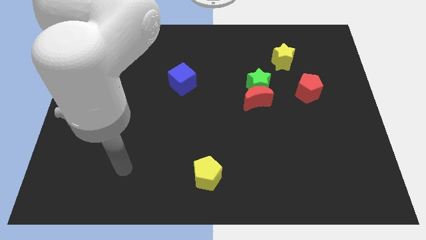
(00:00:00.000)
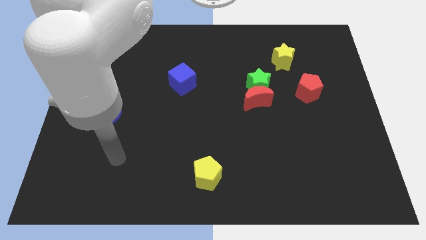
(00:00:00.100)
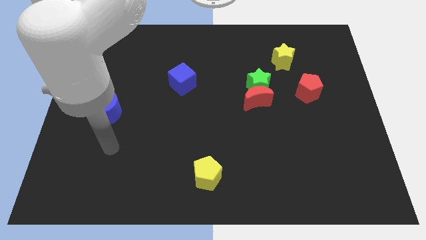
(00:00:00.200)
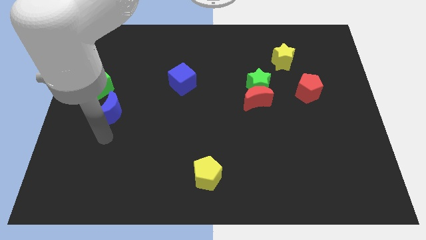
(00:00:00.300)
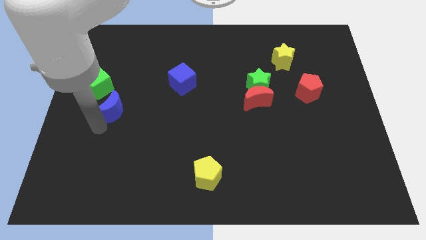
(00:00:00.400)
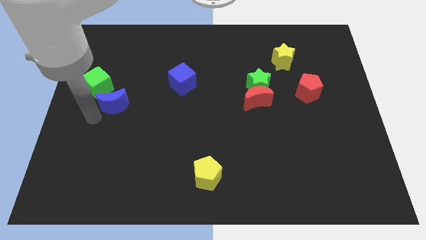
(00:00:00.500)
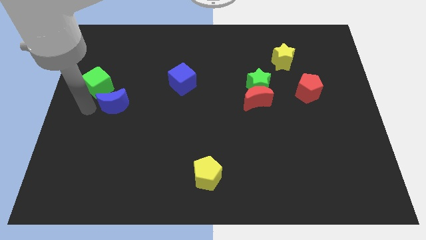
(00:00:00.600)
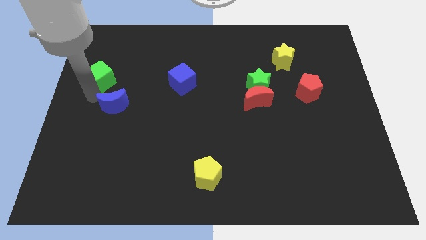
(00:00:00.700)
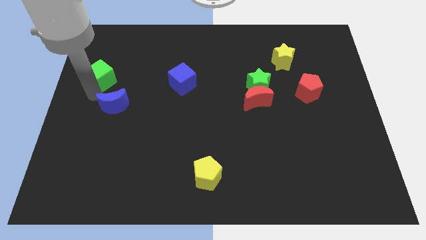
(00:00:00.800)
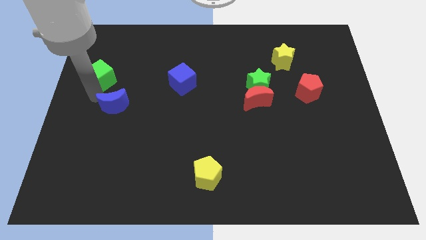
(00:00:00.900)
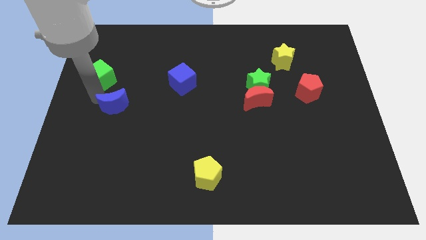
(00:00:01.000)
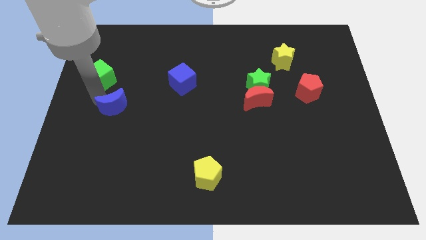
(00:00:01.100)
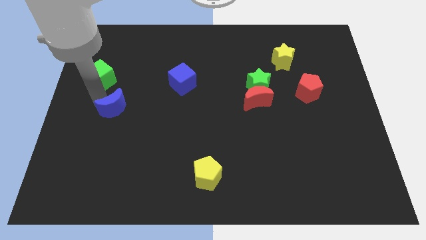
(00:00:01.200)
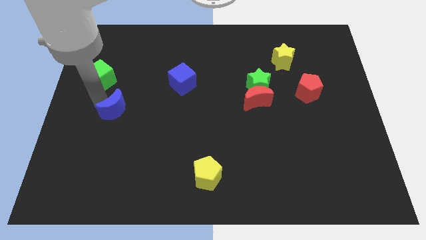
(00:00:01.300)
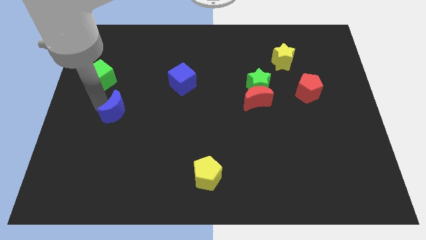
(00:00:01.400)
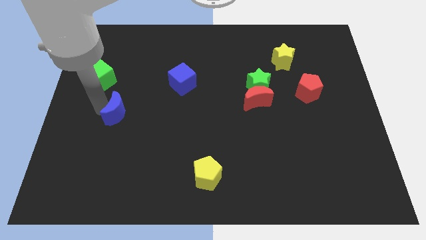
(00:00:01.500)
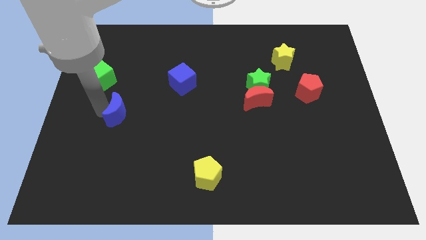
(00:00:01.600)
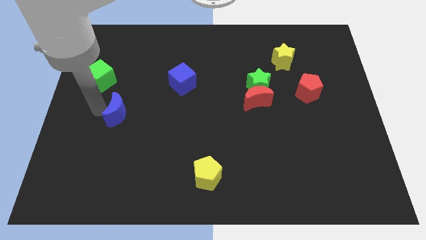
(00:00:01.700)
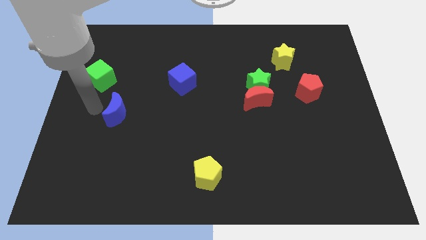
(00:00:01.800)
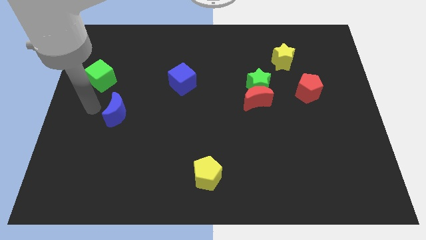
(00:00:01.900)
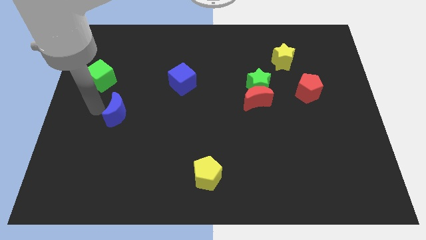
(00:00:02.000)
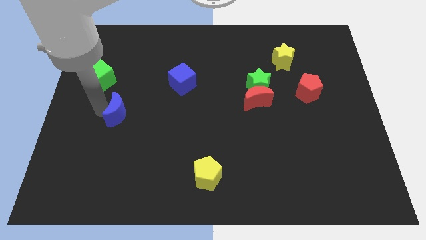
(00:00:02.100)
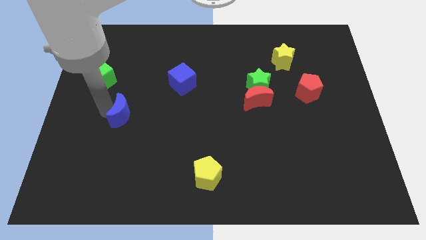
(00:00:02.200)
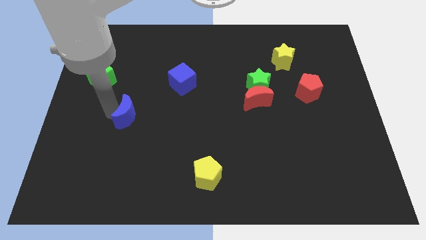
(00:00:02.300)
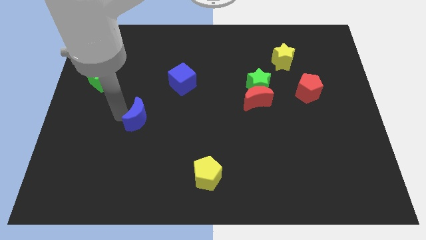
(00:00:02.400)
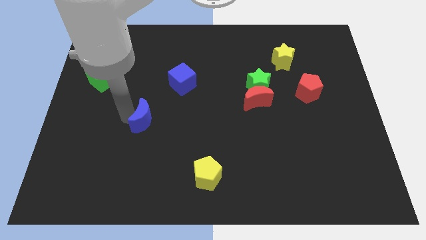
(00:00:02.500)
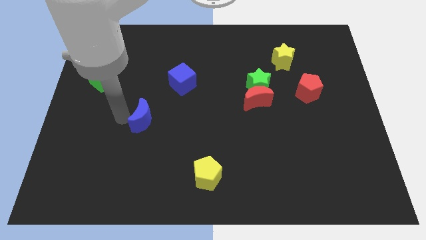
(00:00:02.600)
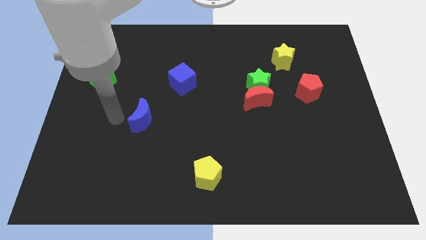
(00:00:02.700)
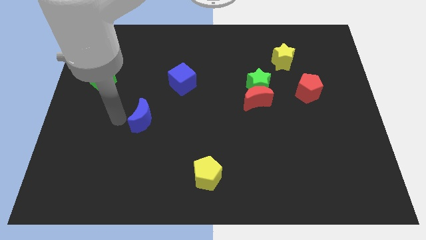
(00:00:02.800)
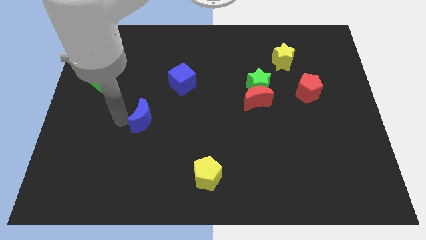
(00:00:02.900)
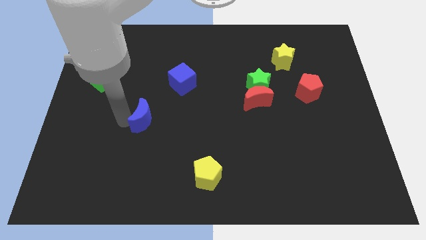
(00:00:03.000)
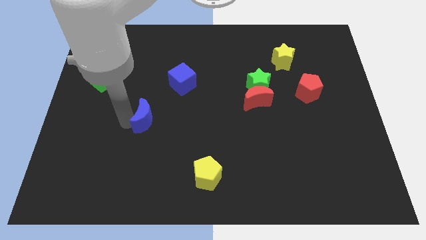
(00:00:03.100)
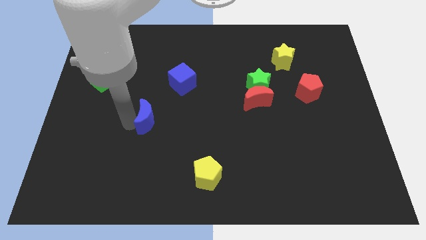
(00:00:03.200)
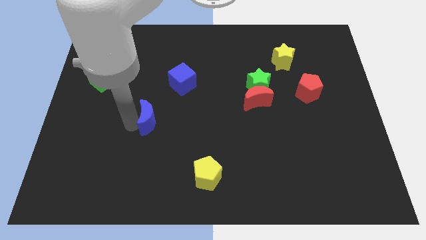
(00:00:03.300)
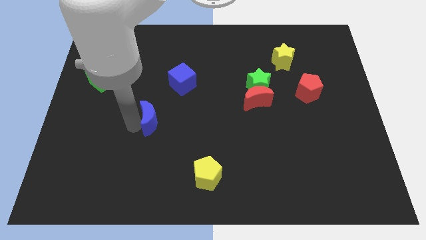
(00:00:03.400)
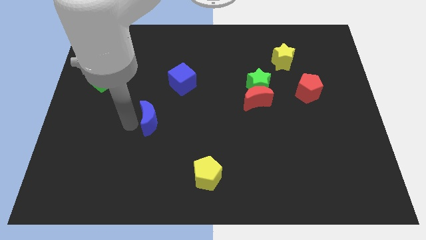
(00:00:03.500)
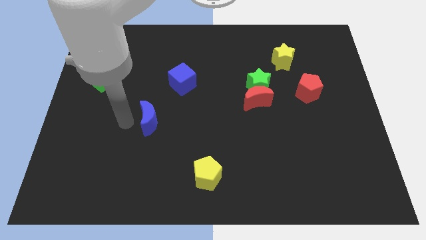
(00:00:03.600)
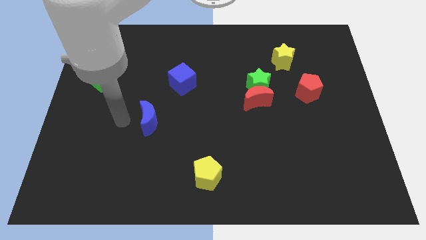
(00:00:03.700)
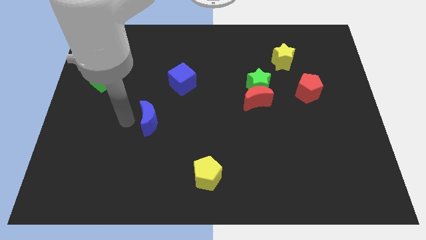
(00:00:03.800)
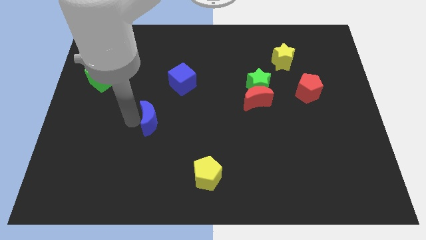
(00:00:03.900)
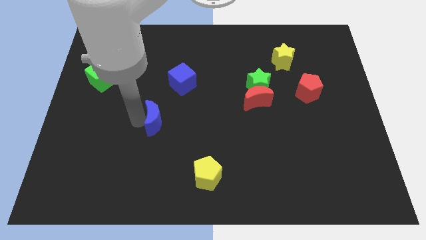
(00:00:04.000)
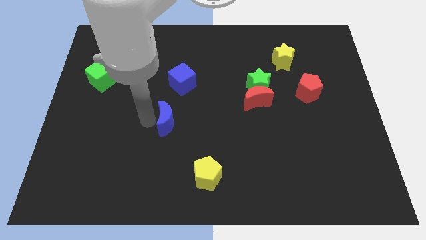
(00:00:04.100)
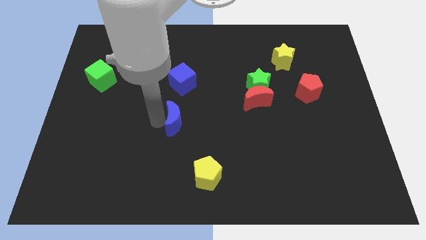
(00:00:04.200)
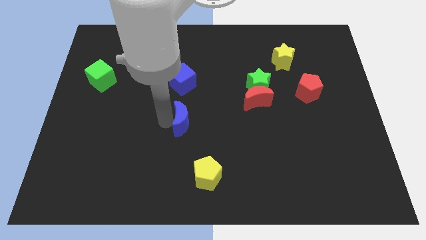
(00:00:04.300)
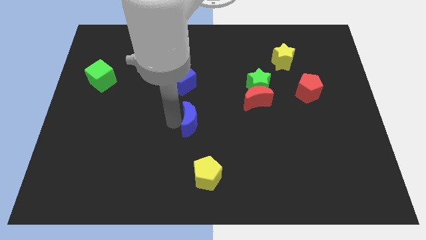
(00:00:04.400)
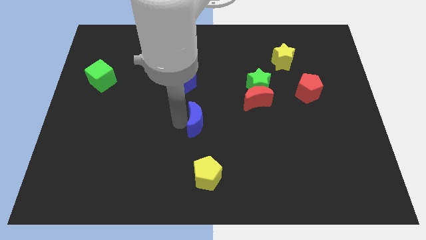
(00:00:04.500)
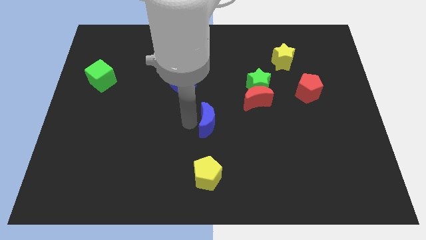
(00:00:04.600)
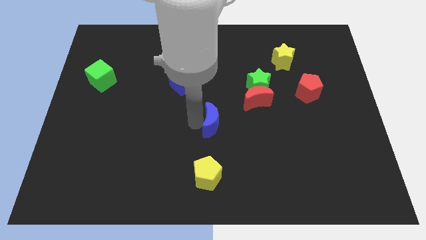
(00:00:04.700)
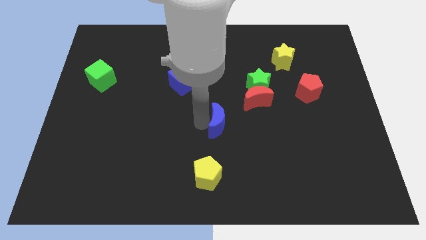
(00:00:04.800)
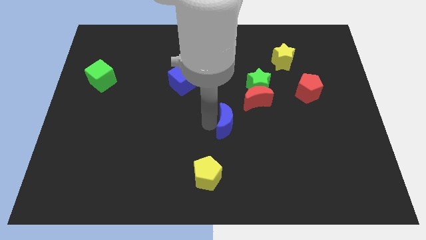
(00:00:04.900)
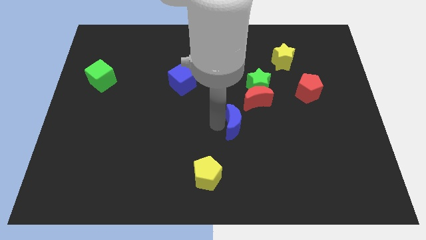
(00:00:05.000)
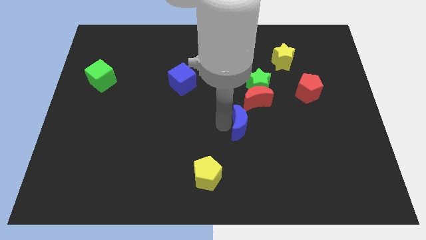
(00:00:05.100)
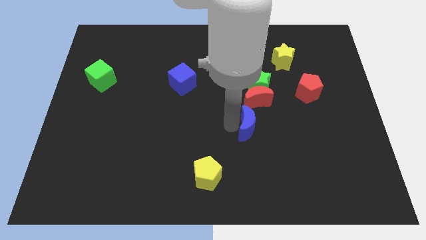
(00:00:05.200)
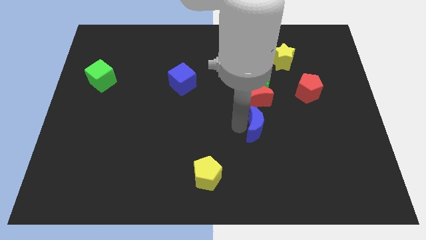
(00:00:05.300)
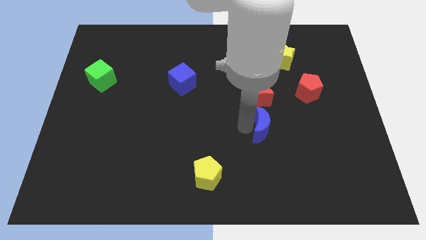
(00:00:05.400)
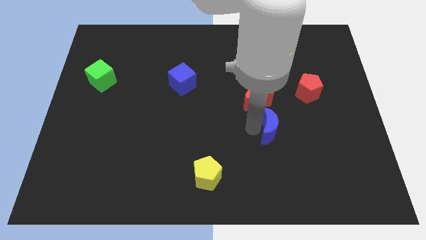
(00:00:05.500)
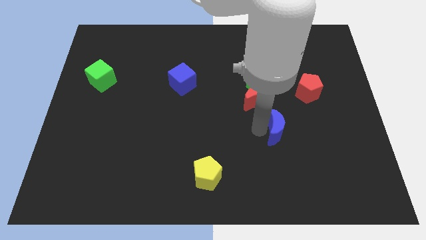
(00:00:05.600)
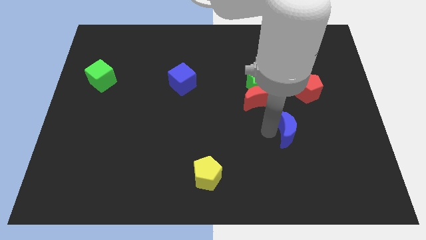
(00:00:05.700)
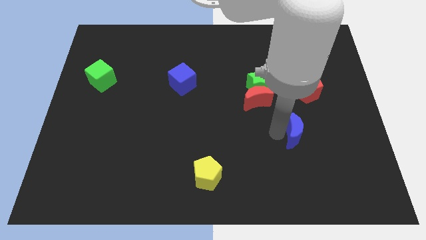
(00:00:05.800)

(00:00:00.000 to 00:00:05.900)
put the blue moon to the bottom side of the red pentagon

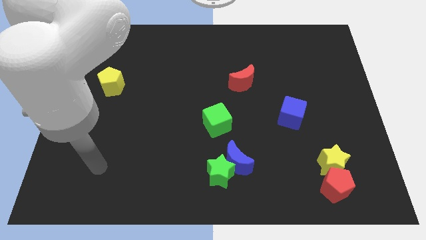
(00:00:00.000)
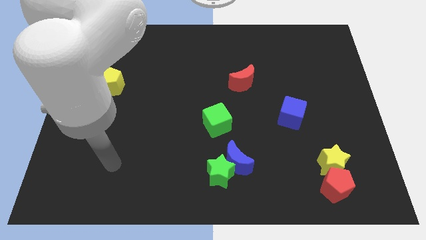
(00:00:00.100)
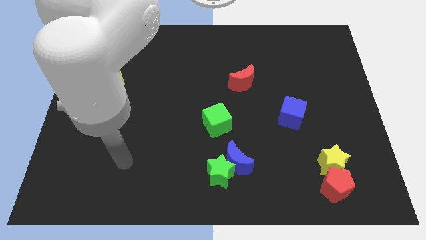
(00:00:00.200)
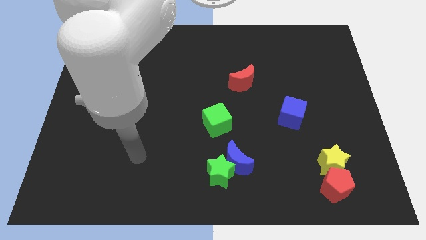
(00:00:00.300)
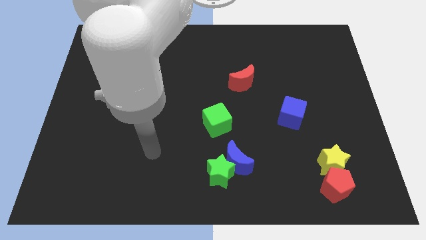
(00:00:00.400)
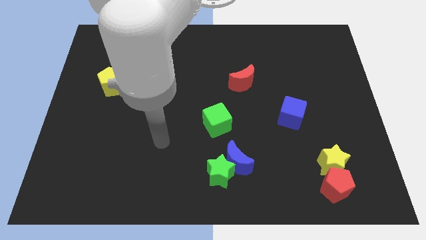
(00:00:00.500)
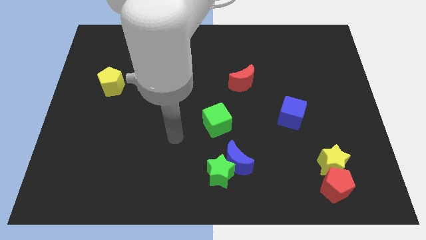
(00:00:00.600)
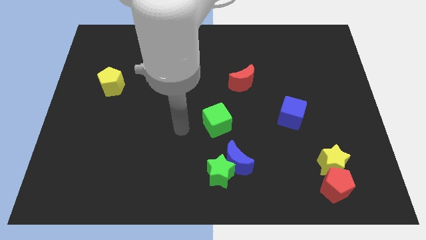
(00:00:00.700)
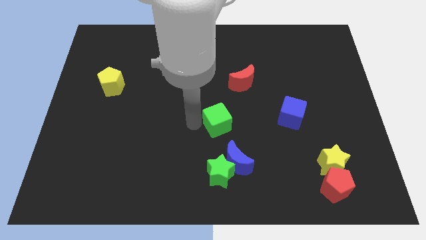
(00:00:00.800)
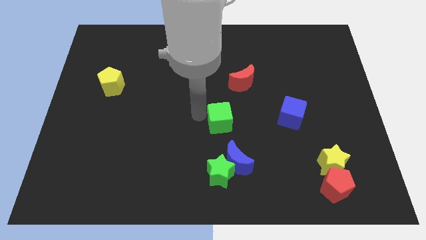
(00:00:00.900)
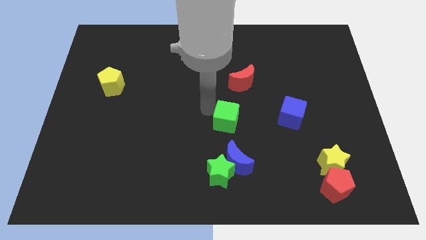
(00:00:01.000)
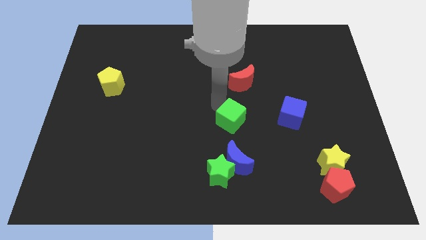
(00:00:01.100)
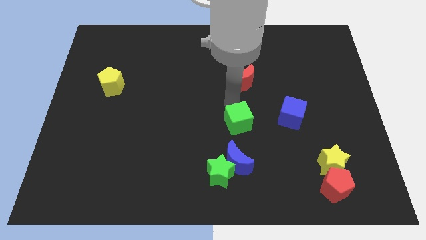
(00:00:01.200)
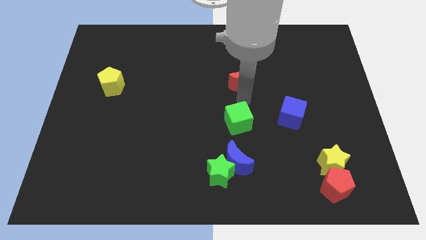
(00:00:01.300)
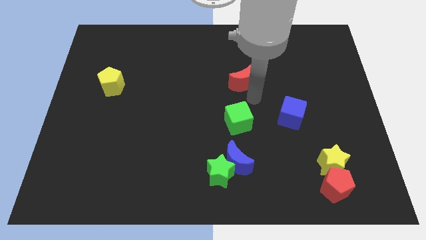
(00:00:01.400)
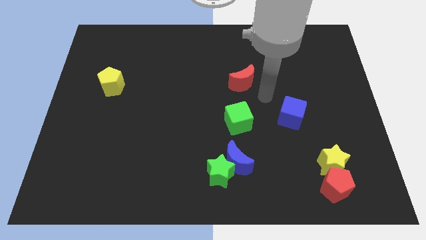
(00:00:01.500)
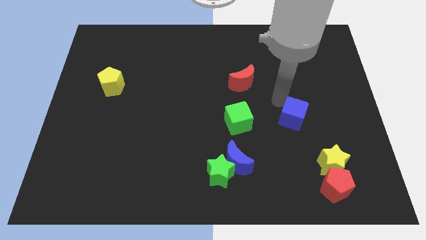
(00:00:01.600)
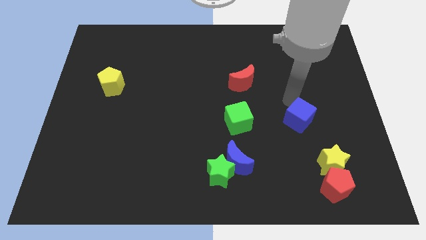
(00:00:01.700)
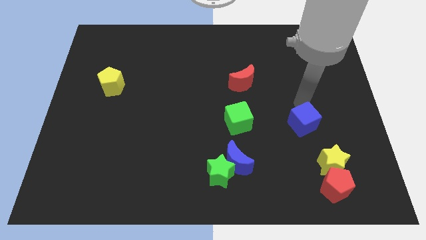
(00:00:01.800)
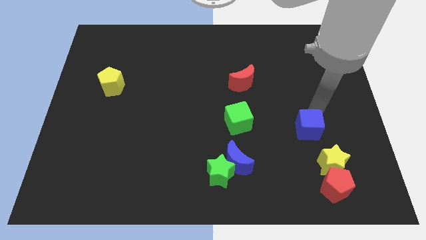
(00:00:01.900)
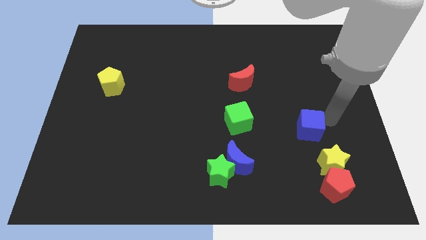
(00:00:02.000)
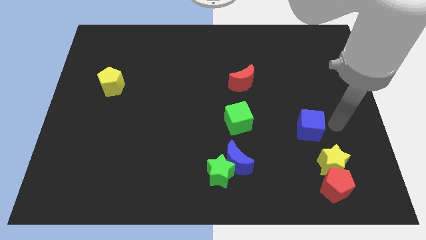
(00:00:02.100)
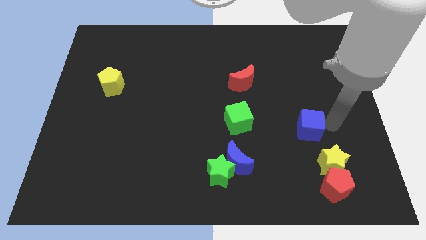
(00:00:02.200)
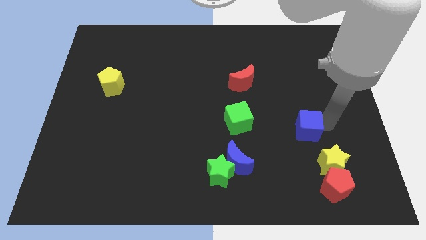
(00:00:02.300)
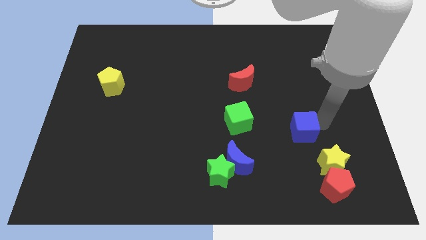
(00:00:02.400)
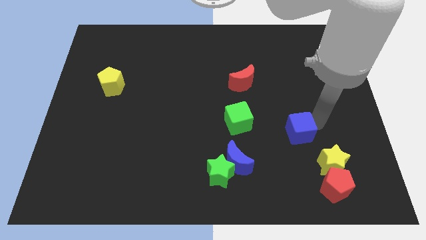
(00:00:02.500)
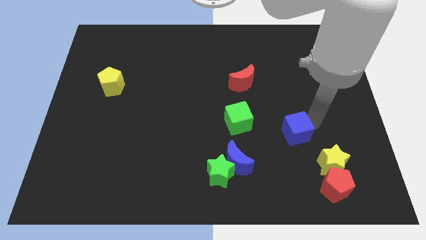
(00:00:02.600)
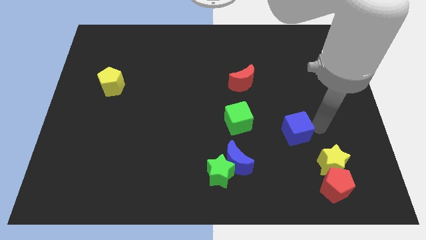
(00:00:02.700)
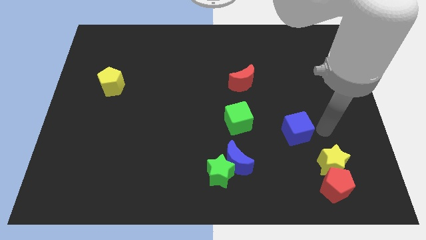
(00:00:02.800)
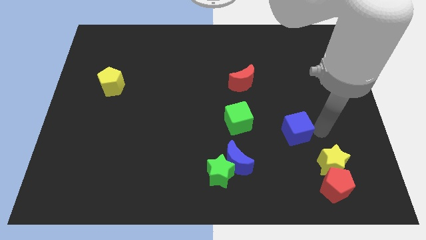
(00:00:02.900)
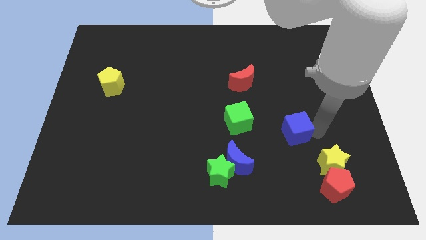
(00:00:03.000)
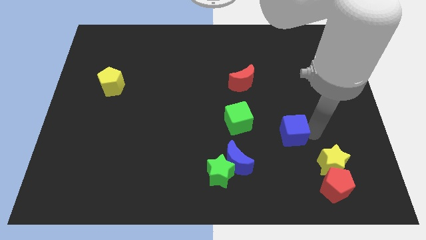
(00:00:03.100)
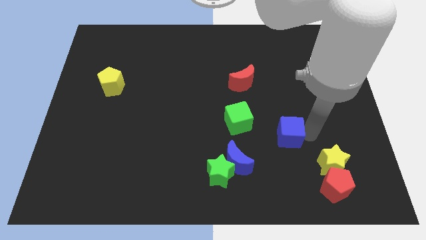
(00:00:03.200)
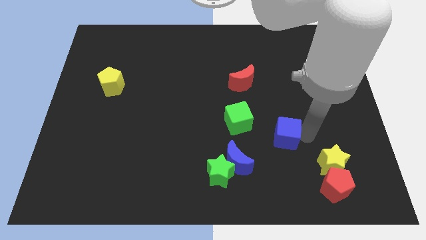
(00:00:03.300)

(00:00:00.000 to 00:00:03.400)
put the blue cube to the bottom right side of the green cube
